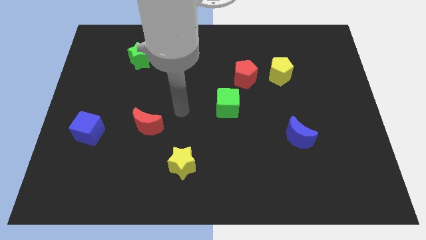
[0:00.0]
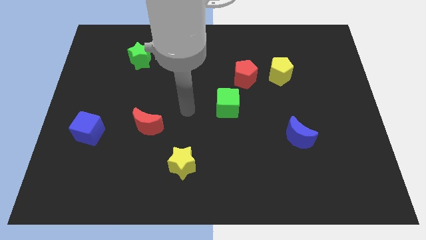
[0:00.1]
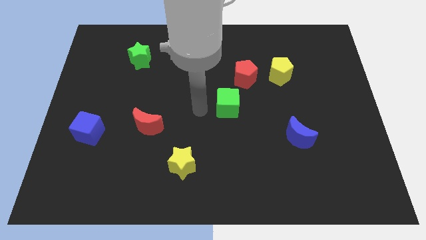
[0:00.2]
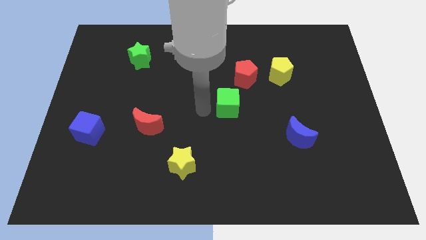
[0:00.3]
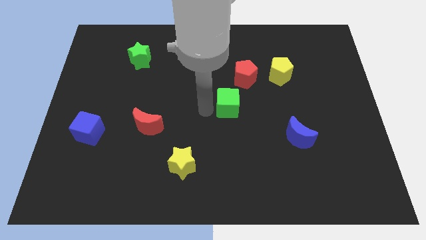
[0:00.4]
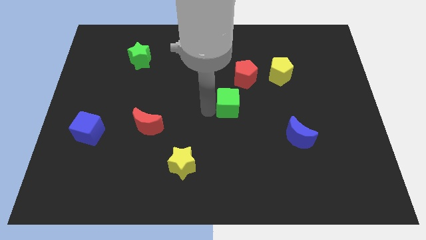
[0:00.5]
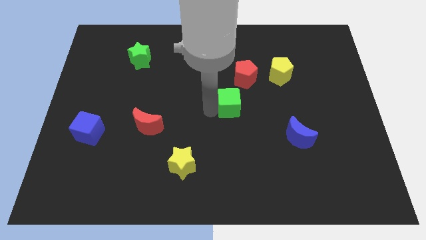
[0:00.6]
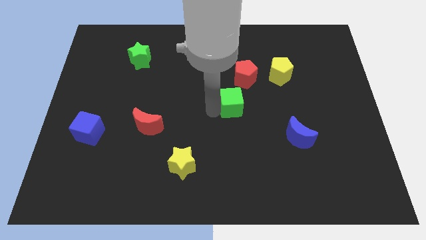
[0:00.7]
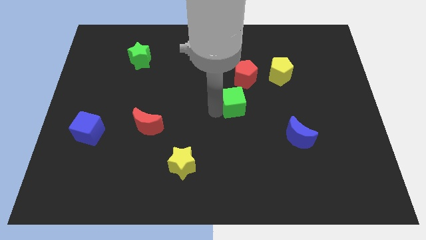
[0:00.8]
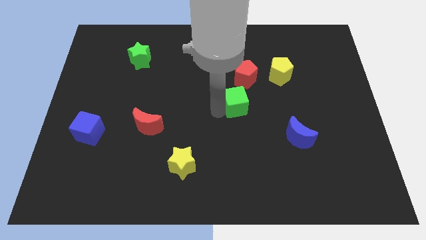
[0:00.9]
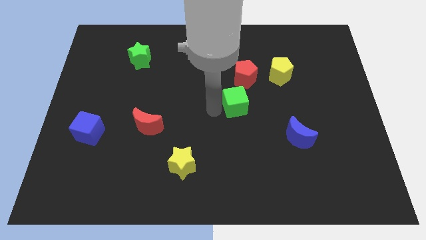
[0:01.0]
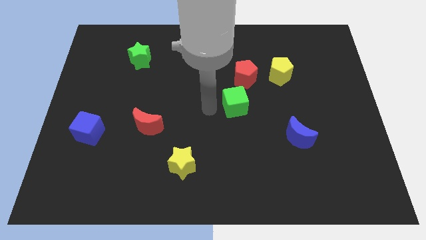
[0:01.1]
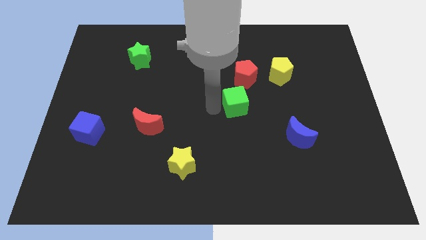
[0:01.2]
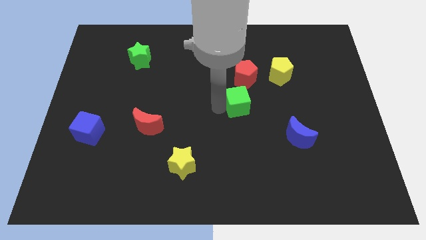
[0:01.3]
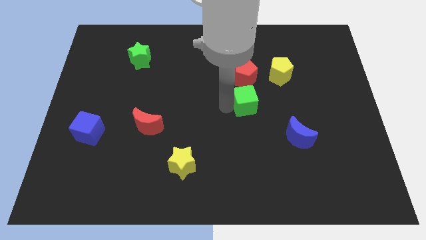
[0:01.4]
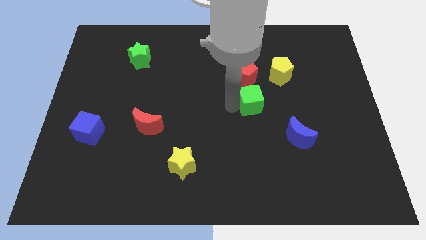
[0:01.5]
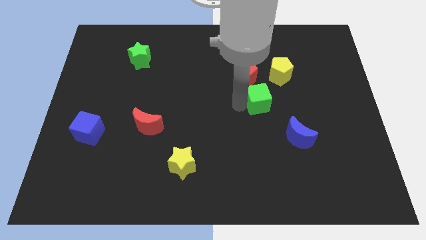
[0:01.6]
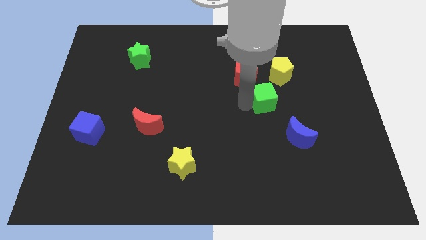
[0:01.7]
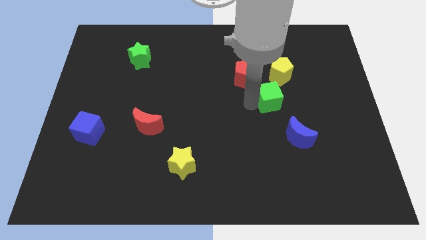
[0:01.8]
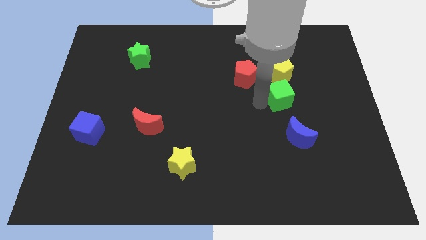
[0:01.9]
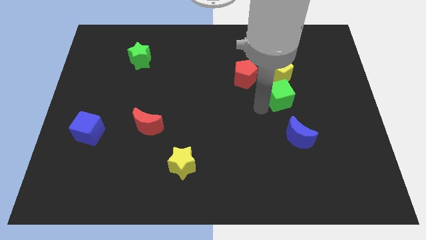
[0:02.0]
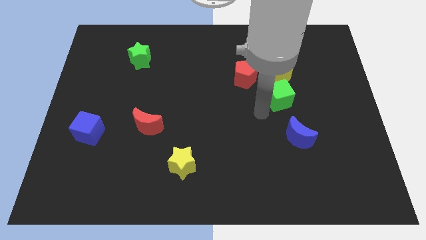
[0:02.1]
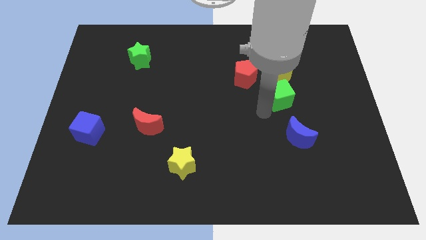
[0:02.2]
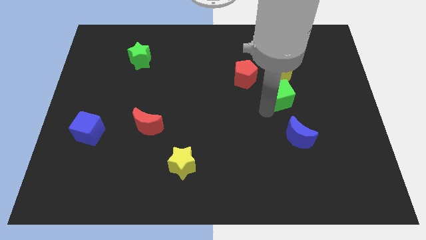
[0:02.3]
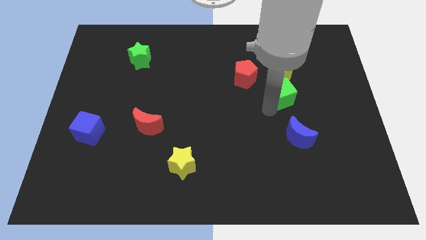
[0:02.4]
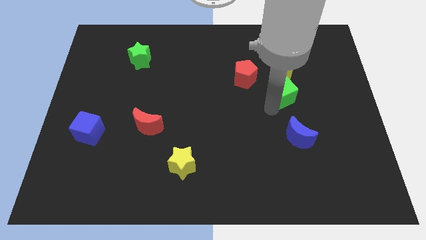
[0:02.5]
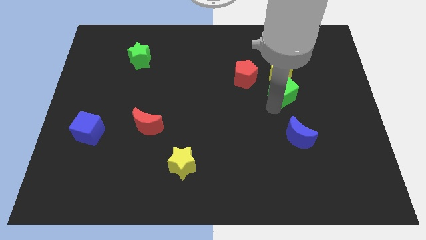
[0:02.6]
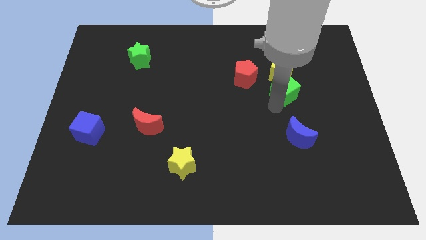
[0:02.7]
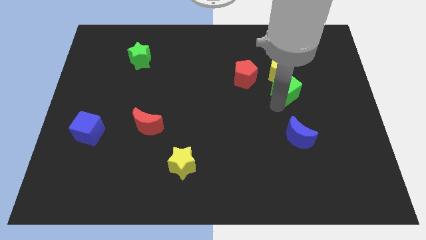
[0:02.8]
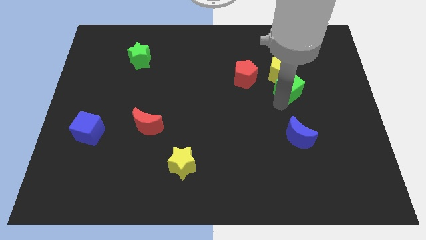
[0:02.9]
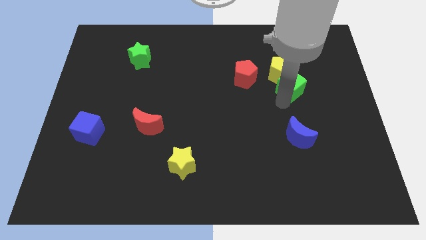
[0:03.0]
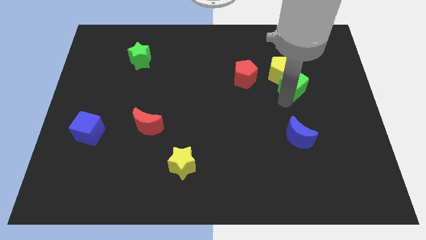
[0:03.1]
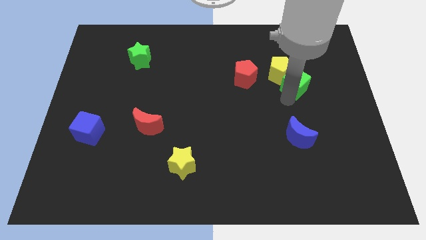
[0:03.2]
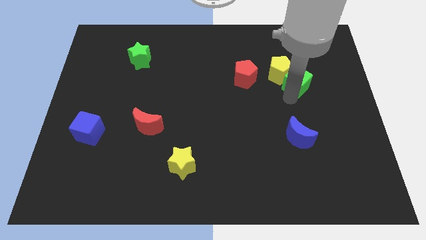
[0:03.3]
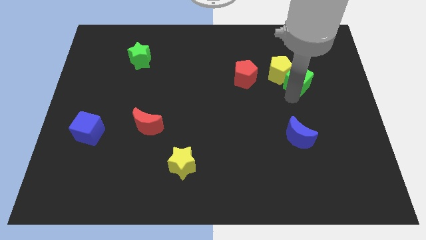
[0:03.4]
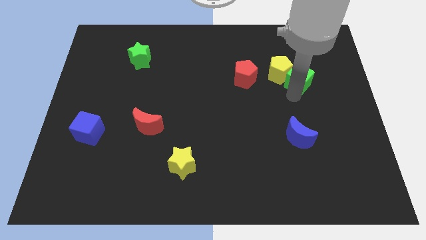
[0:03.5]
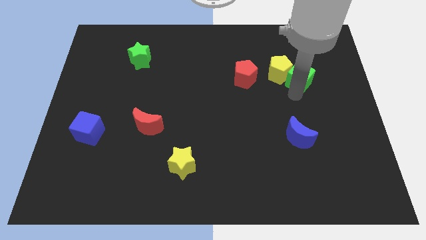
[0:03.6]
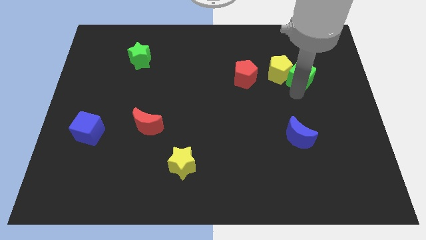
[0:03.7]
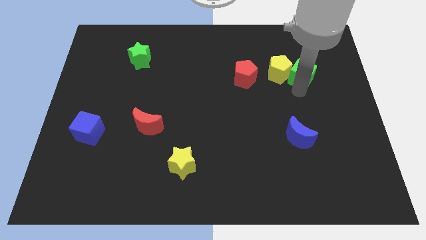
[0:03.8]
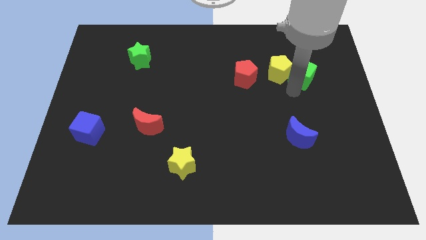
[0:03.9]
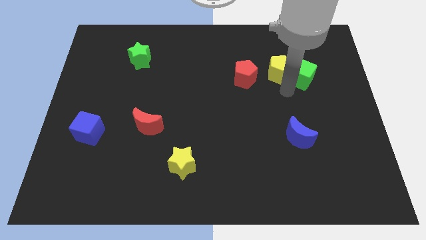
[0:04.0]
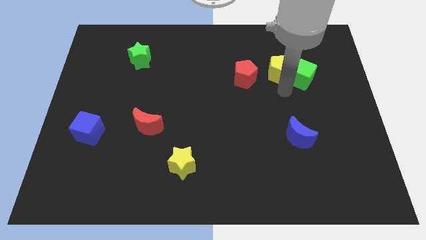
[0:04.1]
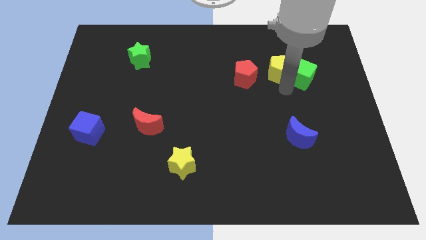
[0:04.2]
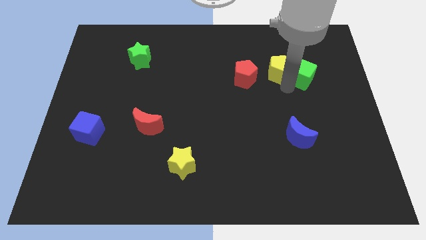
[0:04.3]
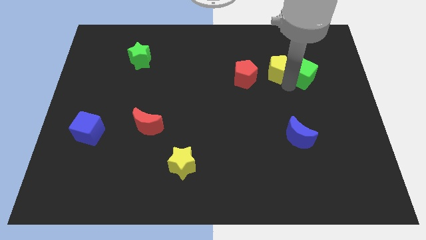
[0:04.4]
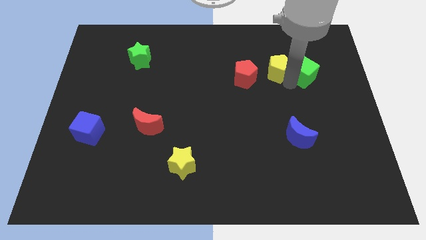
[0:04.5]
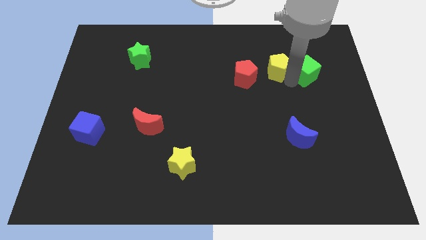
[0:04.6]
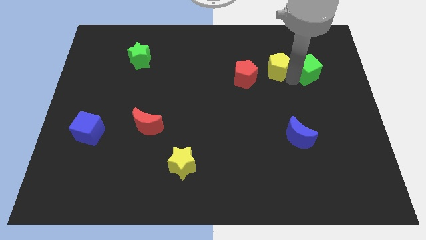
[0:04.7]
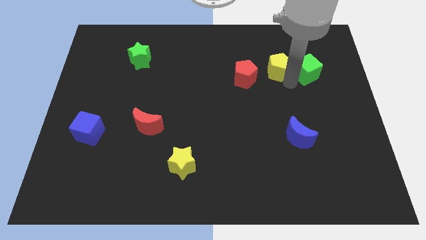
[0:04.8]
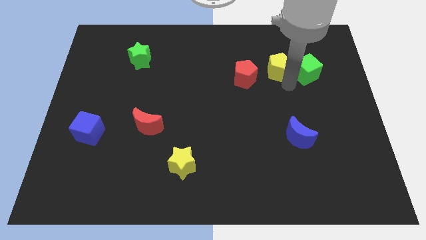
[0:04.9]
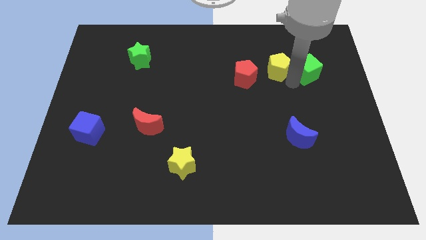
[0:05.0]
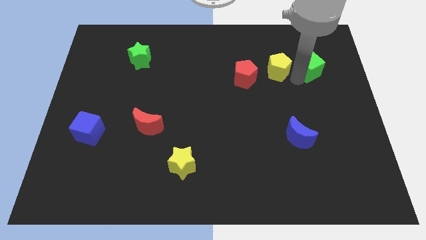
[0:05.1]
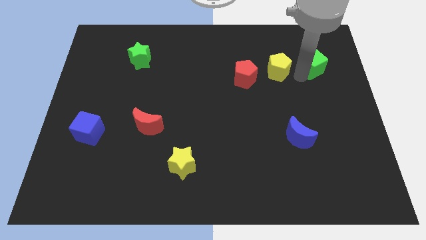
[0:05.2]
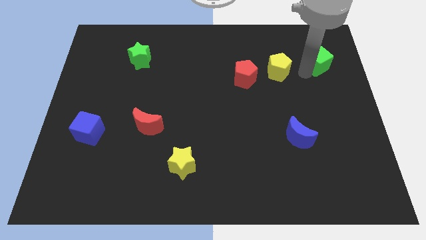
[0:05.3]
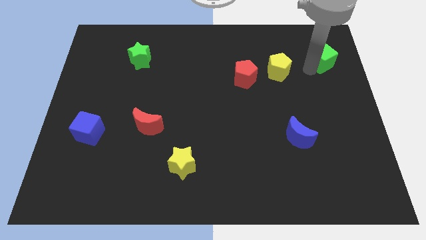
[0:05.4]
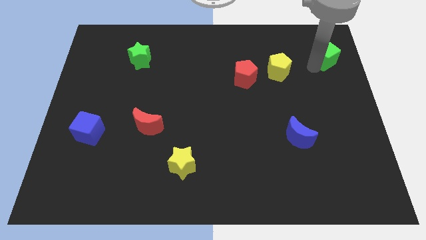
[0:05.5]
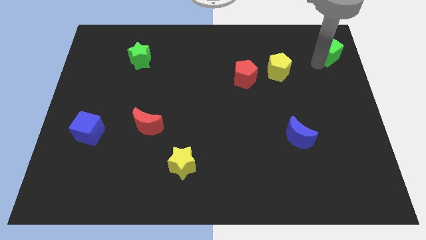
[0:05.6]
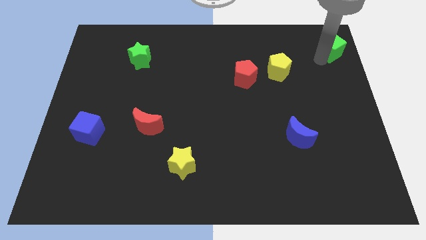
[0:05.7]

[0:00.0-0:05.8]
put the green cube to the top right corner

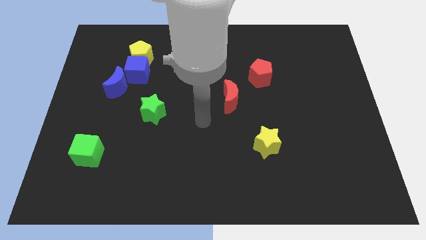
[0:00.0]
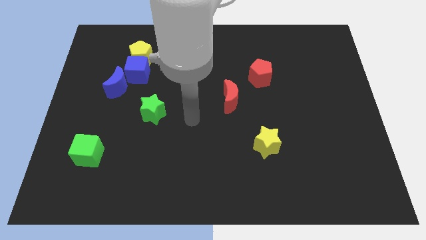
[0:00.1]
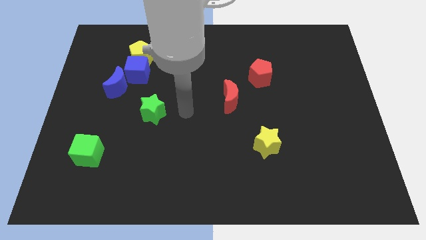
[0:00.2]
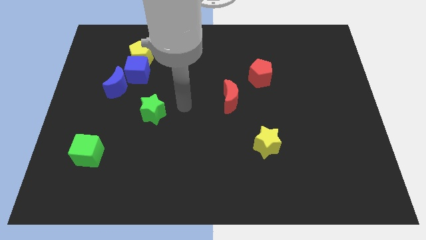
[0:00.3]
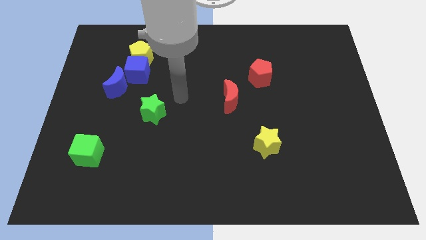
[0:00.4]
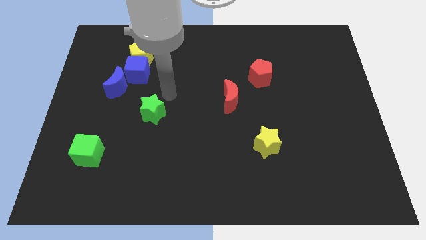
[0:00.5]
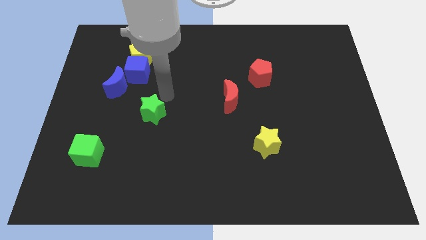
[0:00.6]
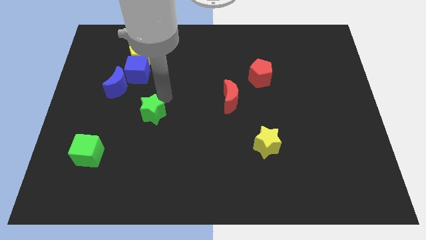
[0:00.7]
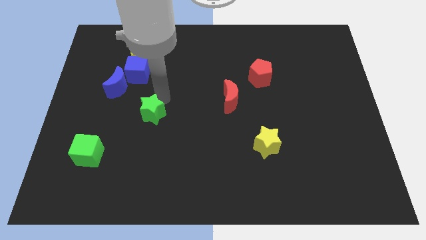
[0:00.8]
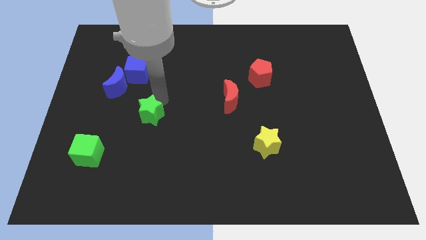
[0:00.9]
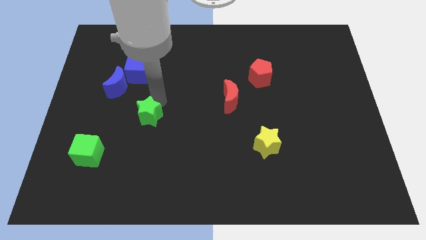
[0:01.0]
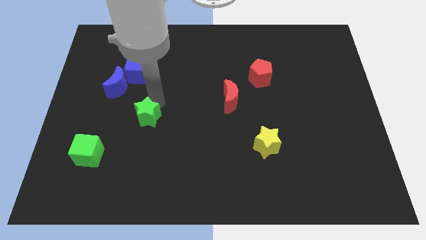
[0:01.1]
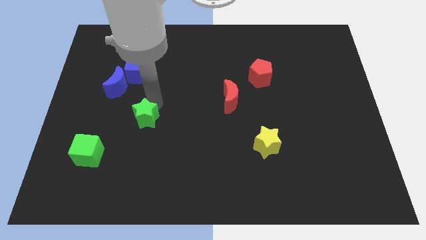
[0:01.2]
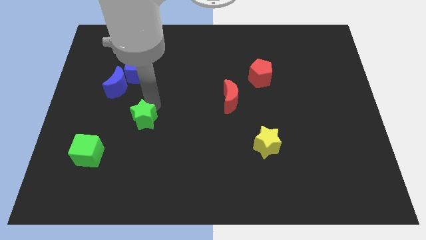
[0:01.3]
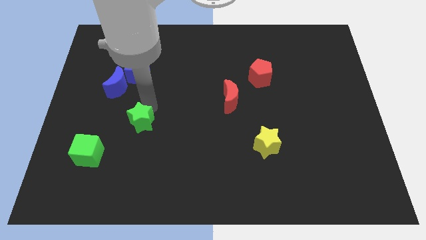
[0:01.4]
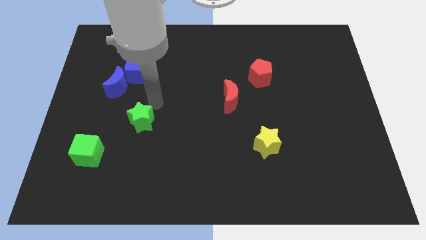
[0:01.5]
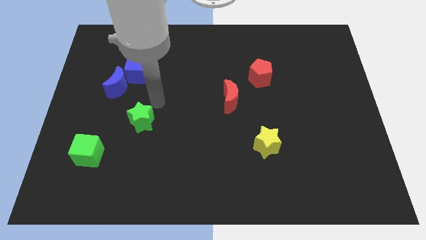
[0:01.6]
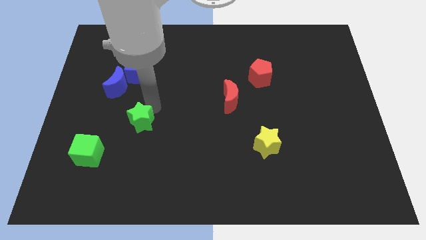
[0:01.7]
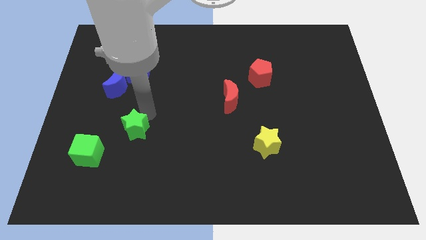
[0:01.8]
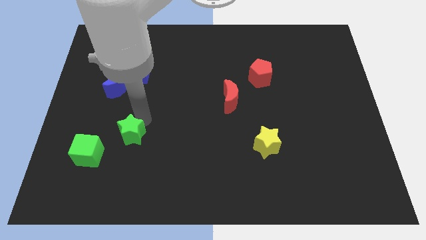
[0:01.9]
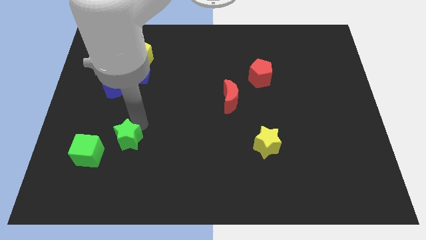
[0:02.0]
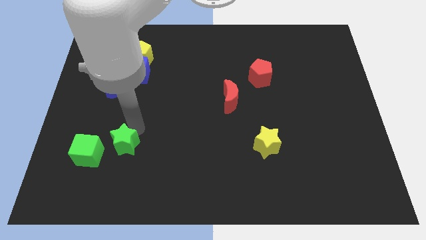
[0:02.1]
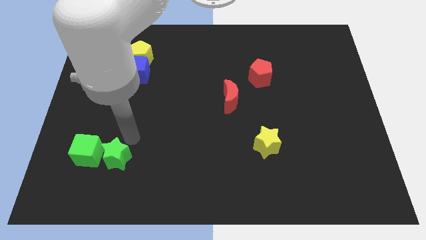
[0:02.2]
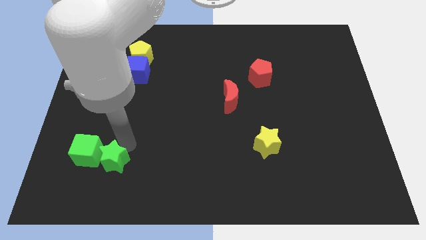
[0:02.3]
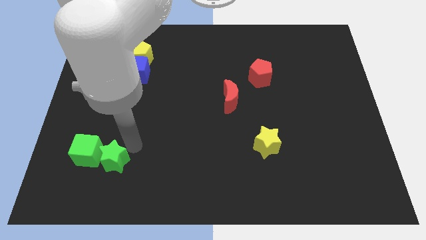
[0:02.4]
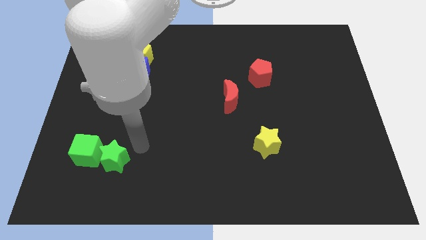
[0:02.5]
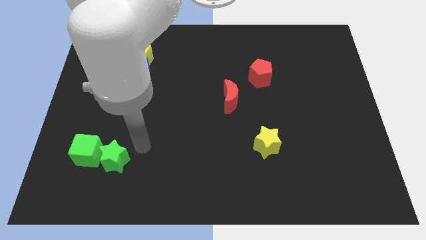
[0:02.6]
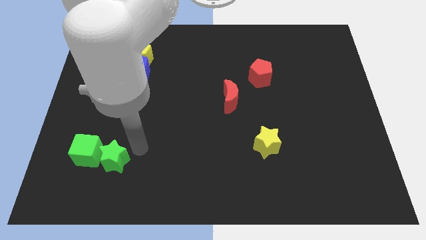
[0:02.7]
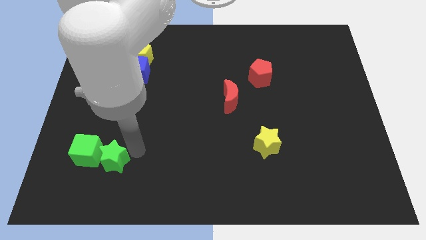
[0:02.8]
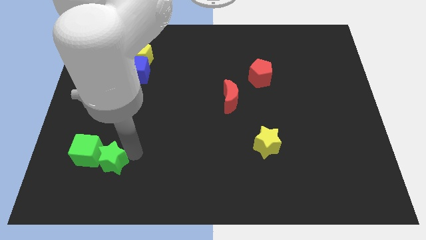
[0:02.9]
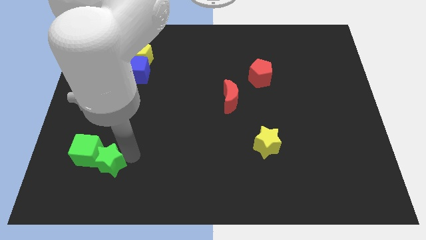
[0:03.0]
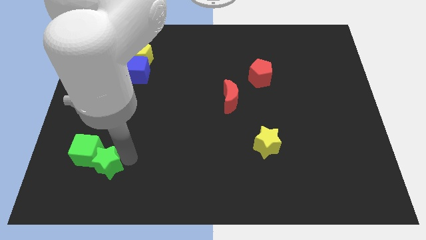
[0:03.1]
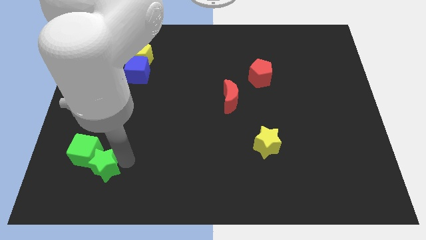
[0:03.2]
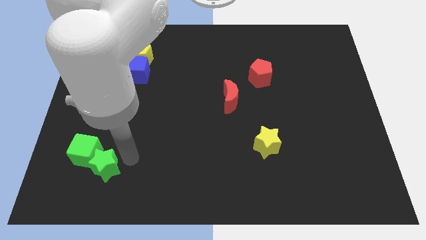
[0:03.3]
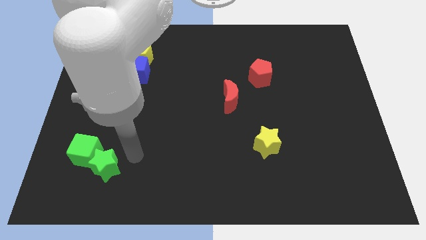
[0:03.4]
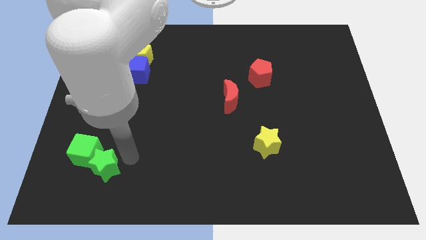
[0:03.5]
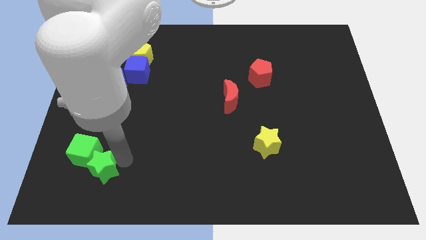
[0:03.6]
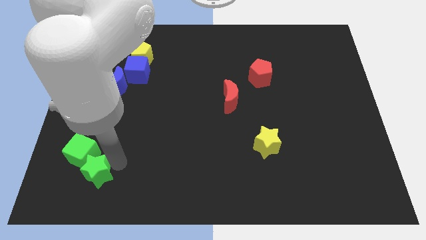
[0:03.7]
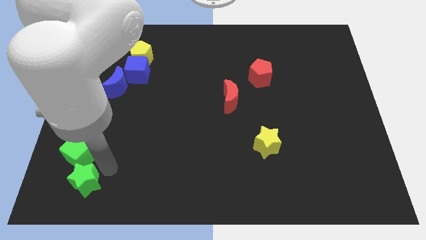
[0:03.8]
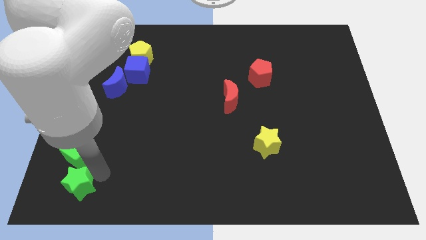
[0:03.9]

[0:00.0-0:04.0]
slide the green star to the bottom left of the board
